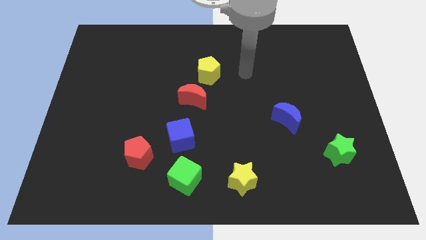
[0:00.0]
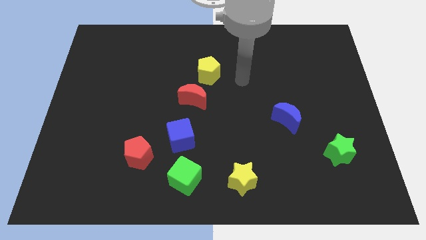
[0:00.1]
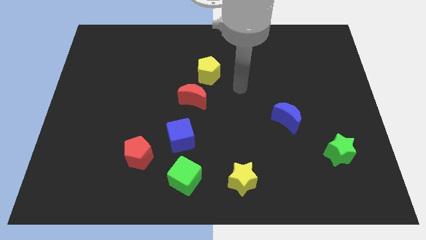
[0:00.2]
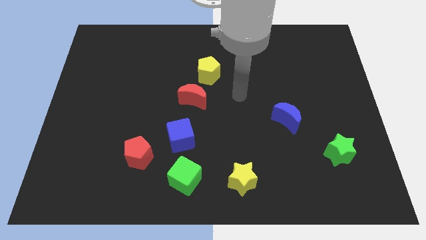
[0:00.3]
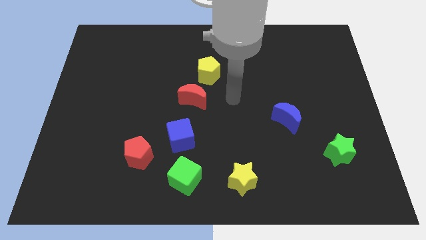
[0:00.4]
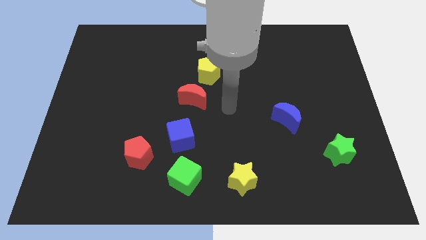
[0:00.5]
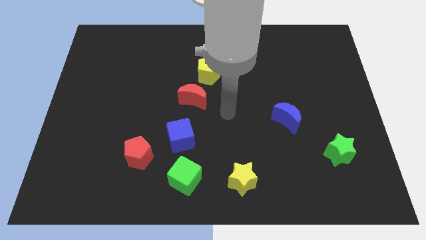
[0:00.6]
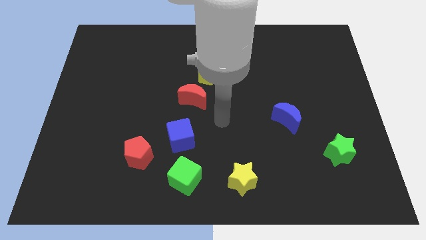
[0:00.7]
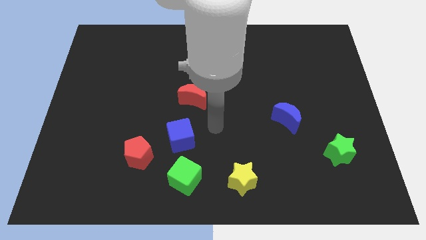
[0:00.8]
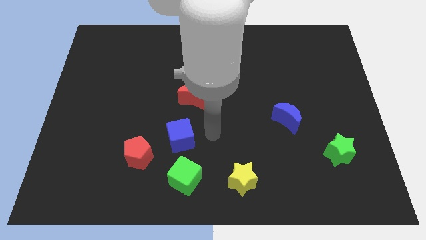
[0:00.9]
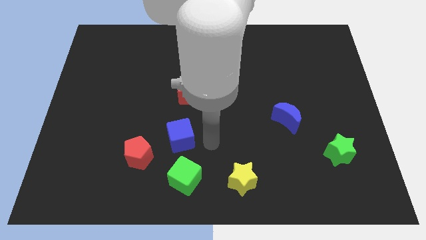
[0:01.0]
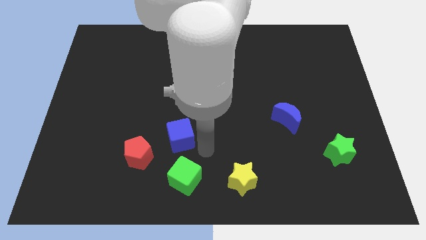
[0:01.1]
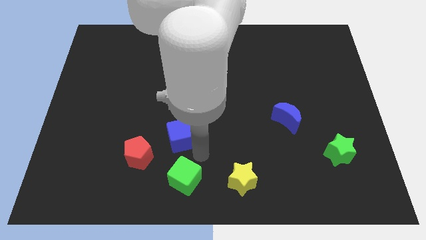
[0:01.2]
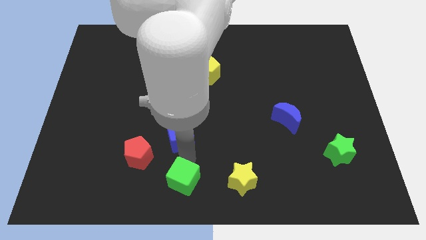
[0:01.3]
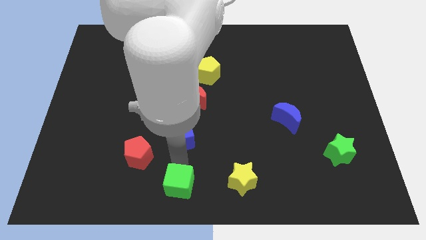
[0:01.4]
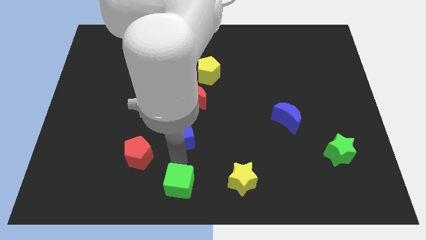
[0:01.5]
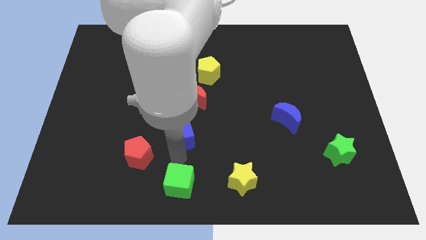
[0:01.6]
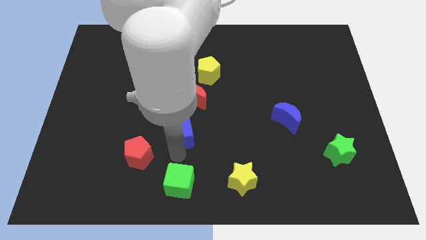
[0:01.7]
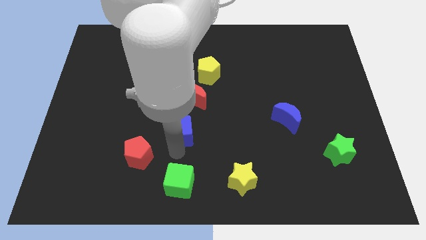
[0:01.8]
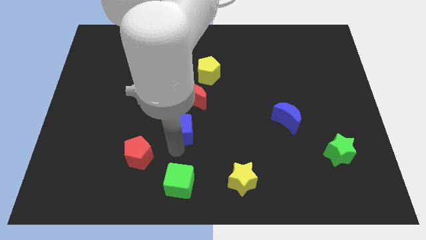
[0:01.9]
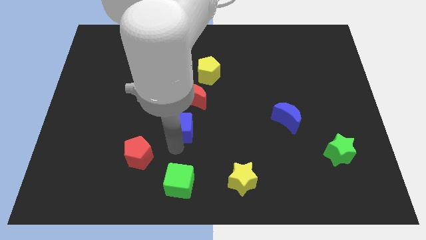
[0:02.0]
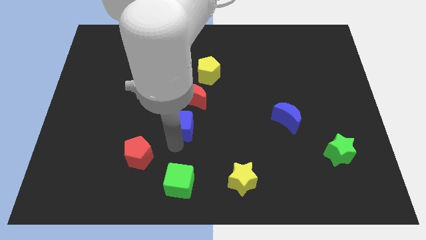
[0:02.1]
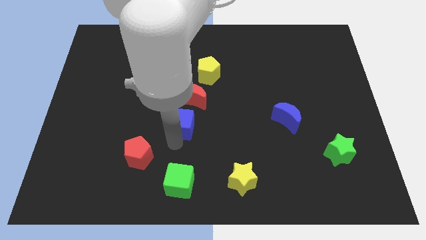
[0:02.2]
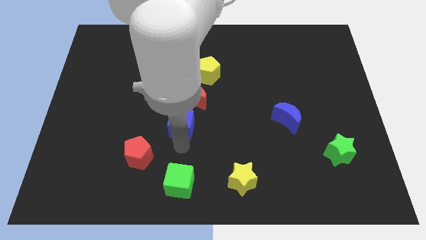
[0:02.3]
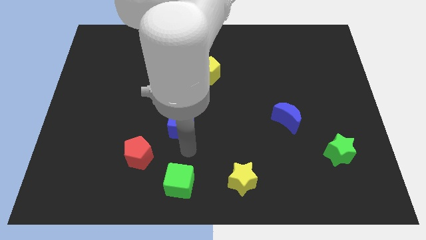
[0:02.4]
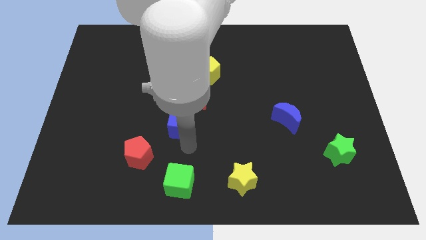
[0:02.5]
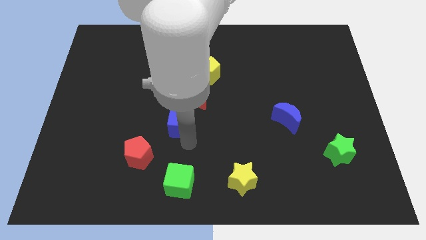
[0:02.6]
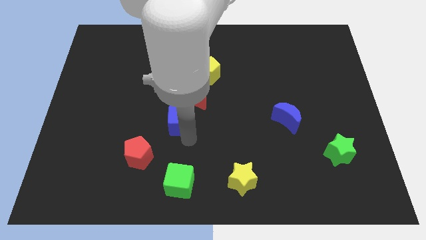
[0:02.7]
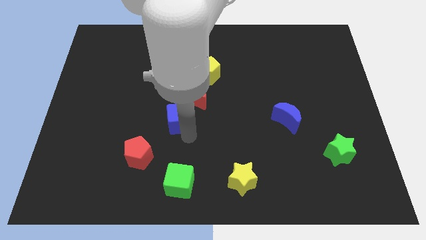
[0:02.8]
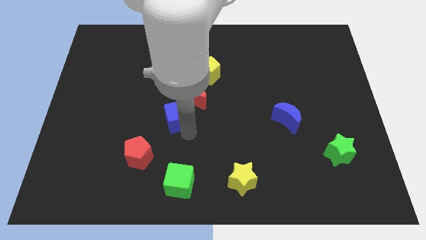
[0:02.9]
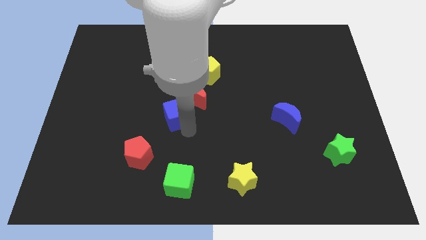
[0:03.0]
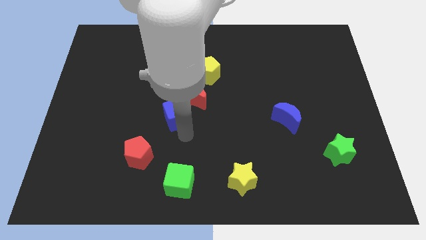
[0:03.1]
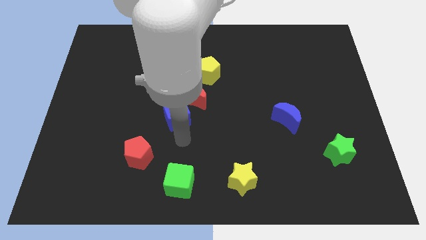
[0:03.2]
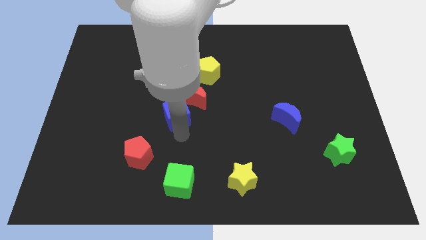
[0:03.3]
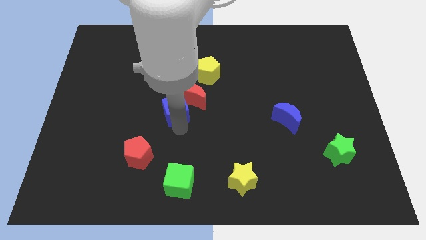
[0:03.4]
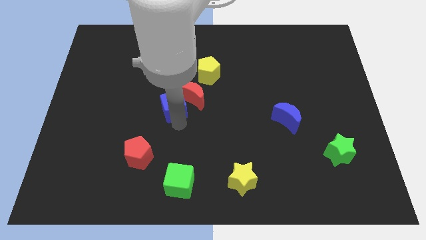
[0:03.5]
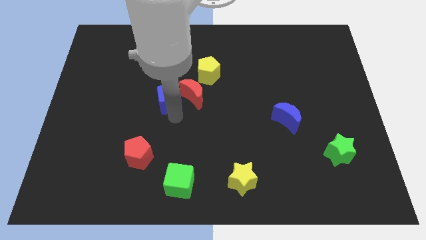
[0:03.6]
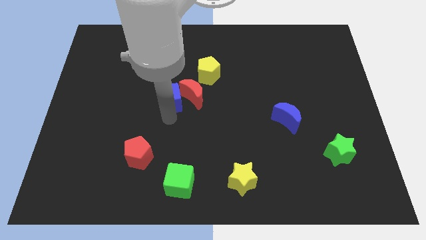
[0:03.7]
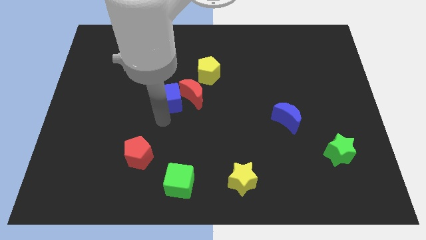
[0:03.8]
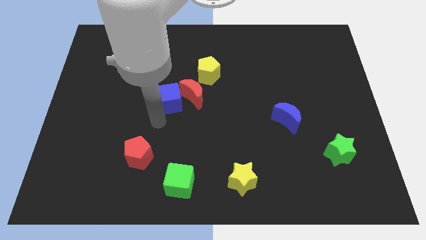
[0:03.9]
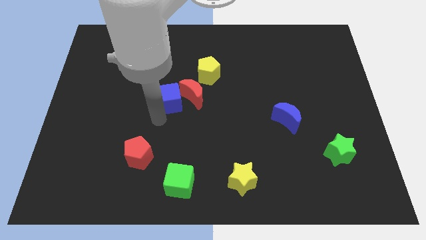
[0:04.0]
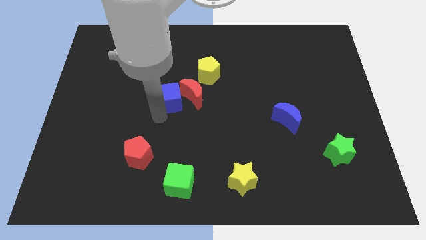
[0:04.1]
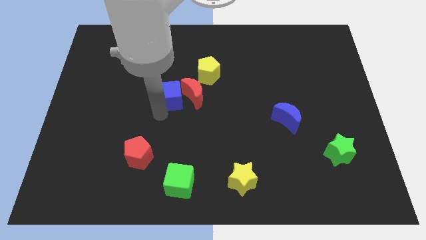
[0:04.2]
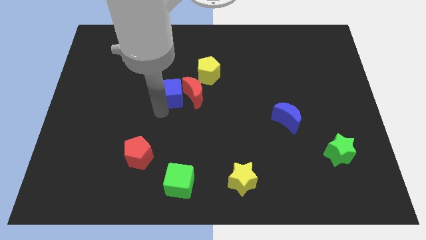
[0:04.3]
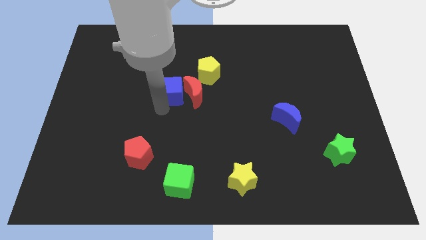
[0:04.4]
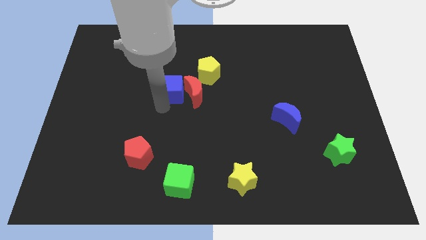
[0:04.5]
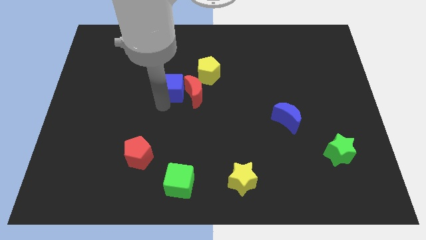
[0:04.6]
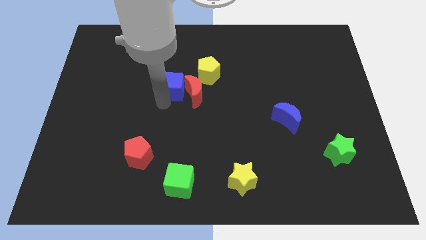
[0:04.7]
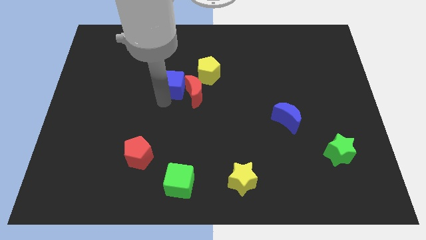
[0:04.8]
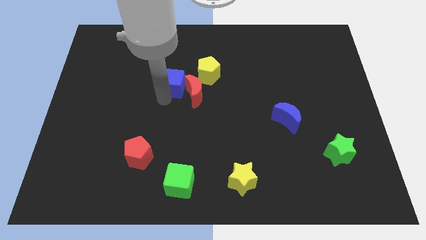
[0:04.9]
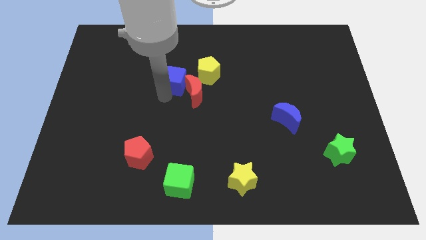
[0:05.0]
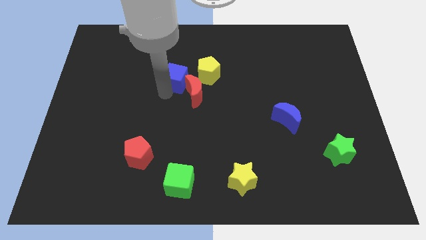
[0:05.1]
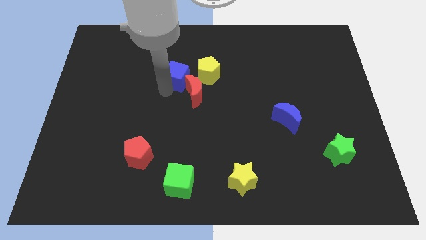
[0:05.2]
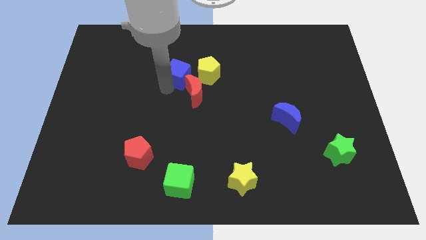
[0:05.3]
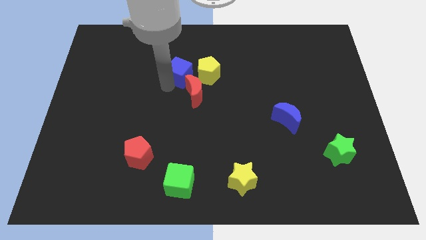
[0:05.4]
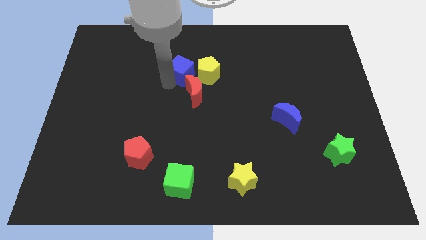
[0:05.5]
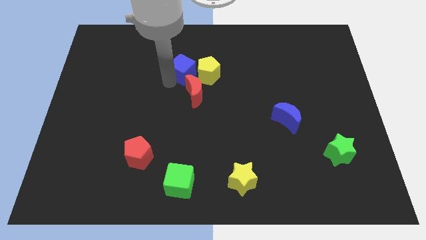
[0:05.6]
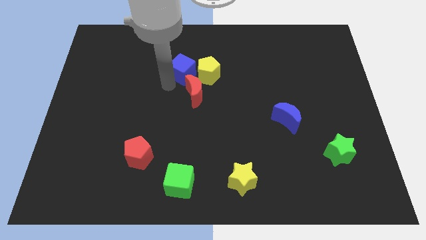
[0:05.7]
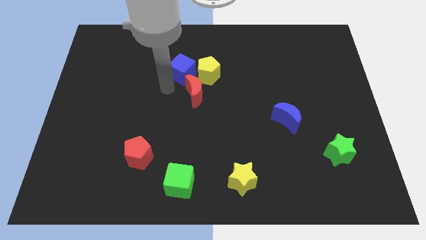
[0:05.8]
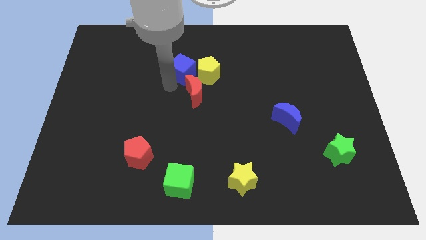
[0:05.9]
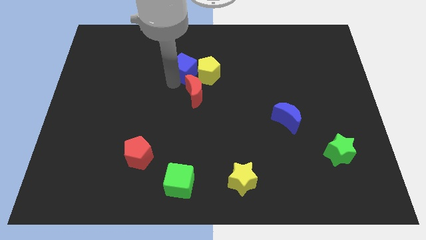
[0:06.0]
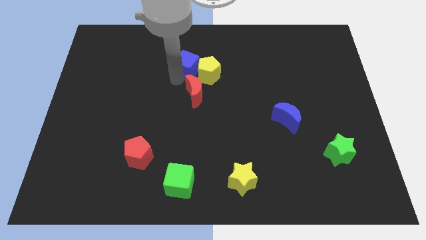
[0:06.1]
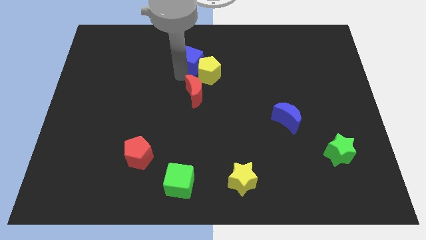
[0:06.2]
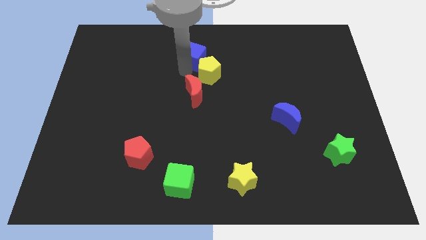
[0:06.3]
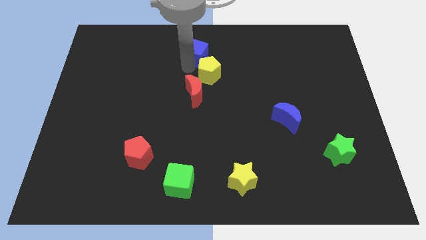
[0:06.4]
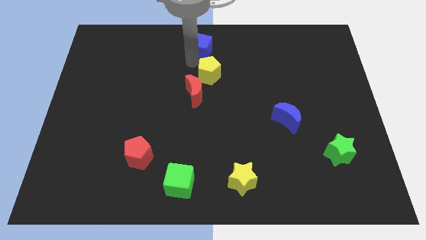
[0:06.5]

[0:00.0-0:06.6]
slide the blue cube to the top side
